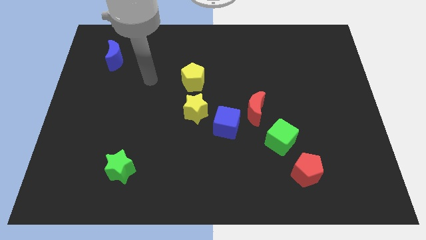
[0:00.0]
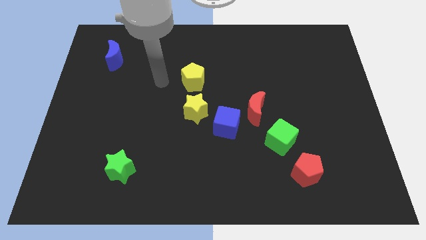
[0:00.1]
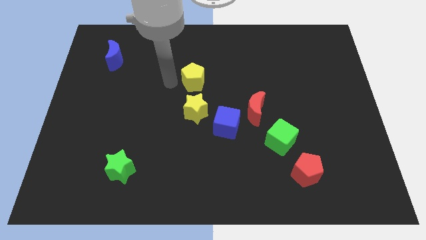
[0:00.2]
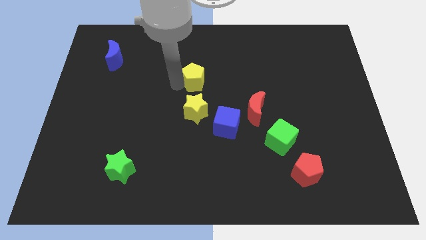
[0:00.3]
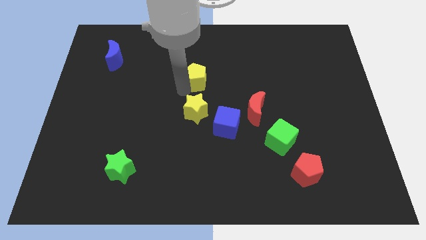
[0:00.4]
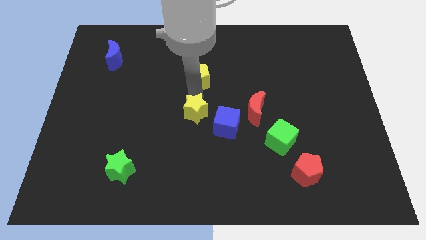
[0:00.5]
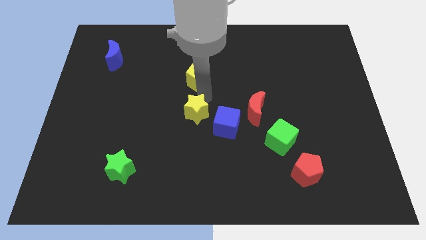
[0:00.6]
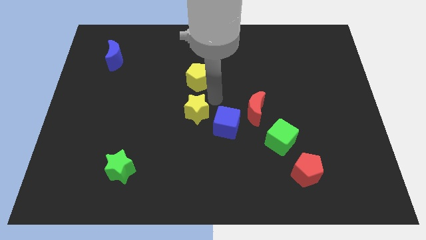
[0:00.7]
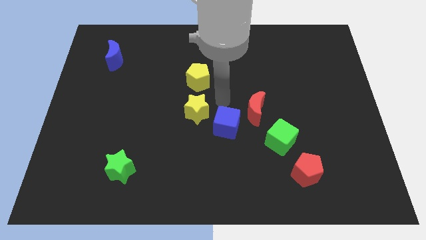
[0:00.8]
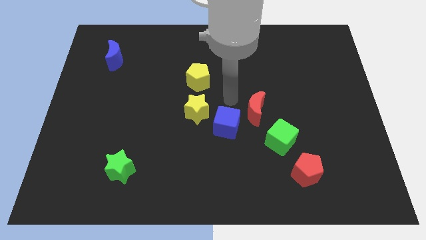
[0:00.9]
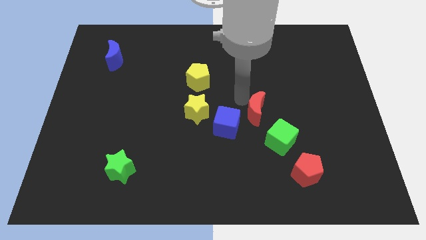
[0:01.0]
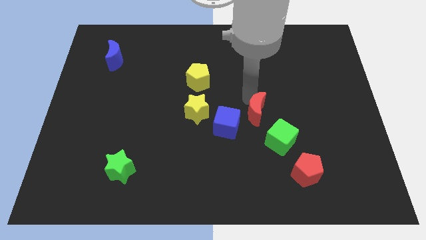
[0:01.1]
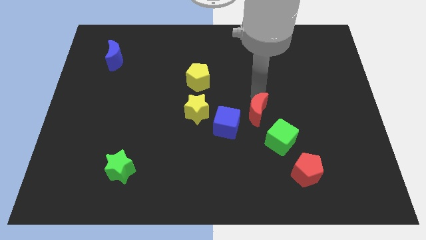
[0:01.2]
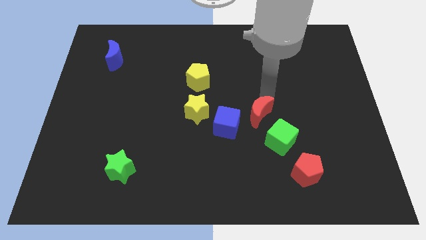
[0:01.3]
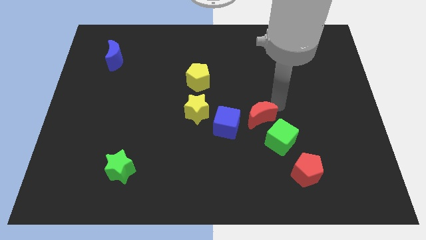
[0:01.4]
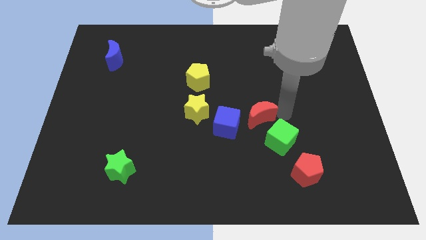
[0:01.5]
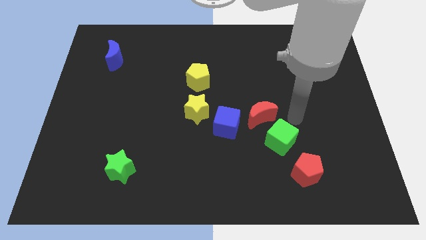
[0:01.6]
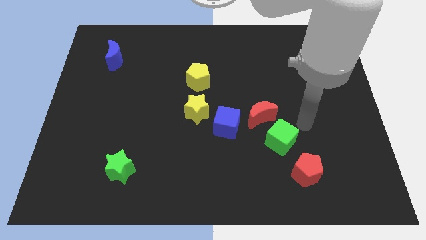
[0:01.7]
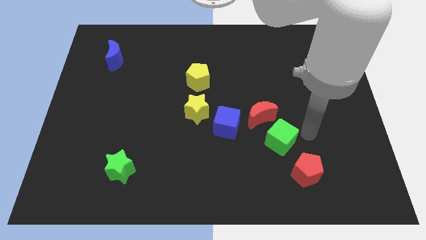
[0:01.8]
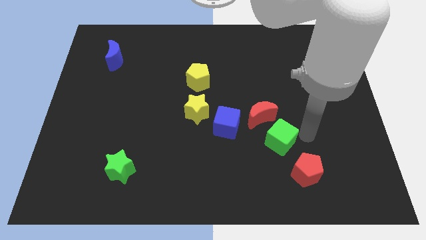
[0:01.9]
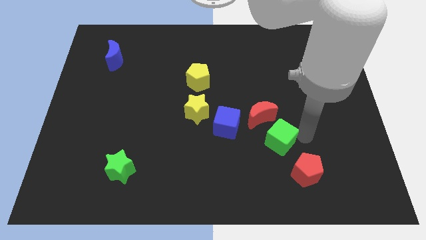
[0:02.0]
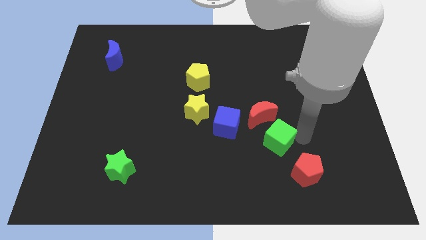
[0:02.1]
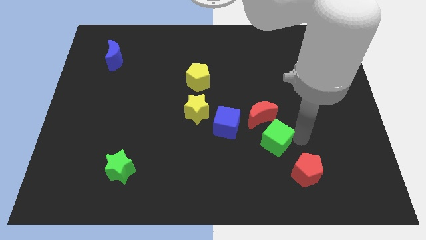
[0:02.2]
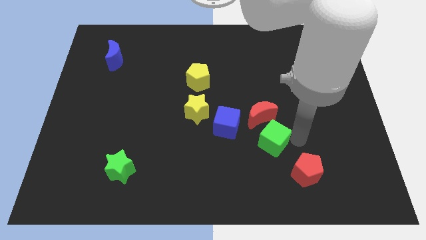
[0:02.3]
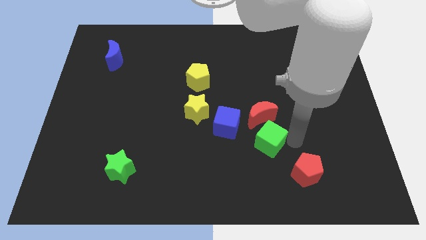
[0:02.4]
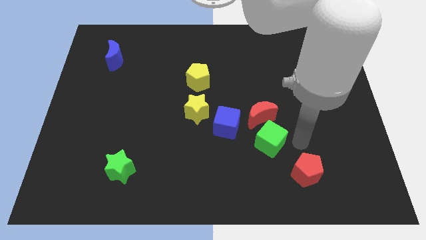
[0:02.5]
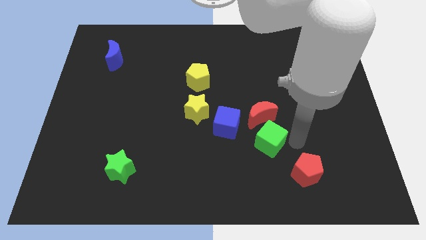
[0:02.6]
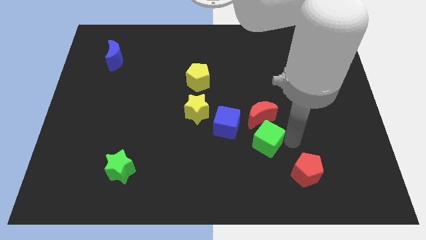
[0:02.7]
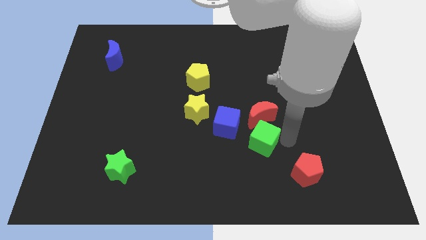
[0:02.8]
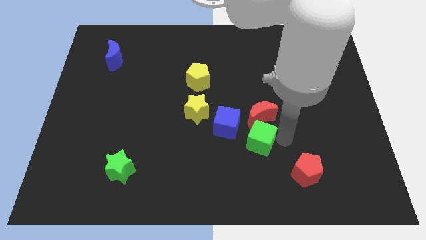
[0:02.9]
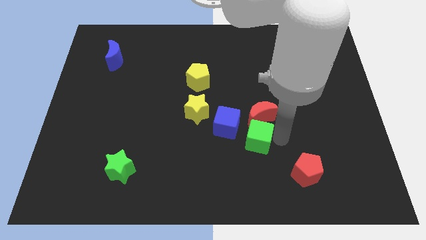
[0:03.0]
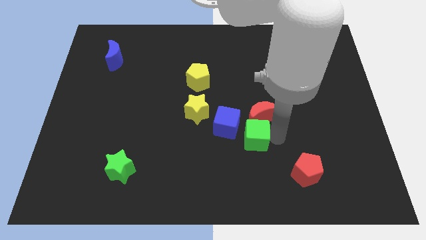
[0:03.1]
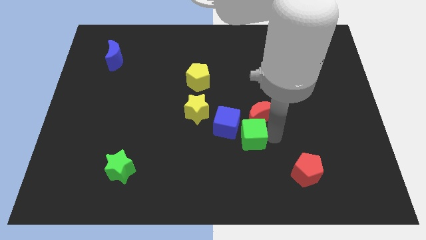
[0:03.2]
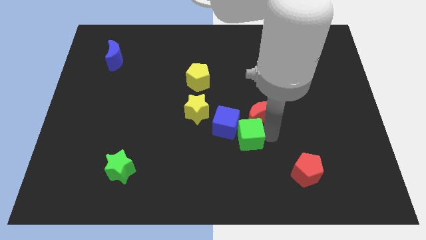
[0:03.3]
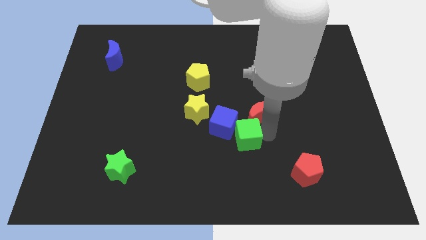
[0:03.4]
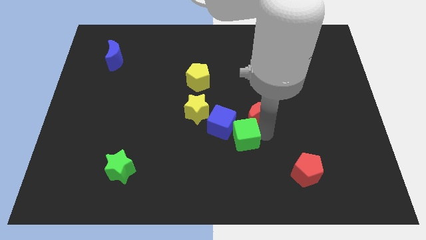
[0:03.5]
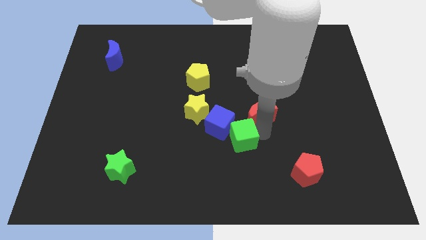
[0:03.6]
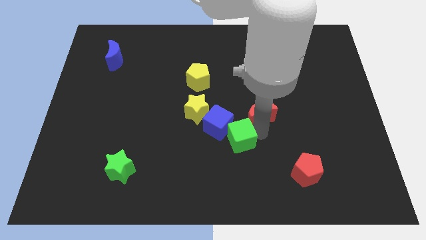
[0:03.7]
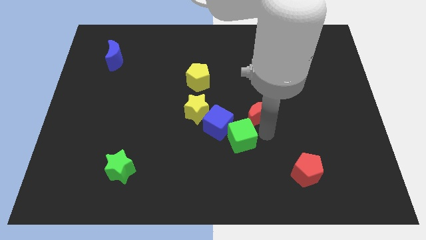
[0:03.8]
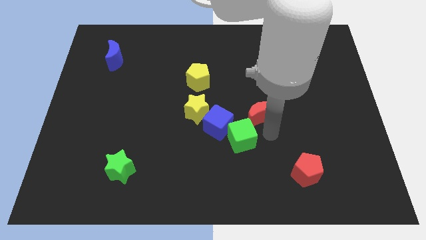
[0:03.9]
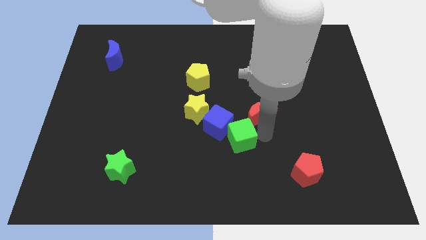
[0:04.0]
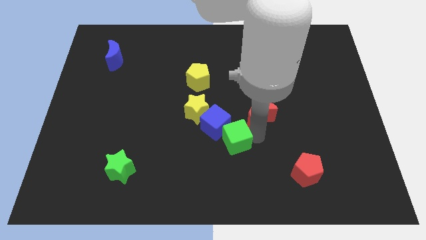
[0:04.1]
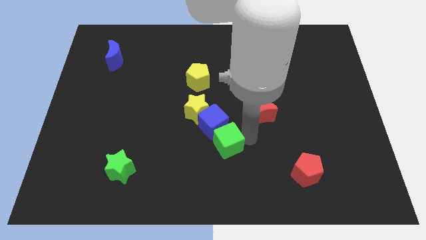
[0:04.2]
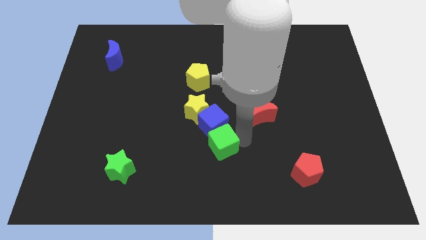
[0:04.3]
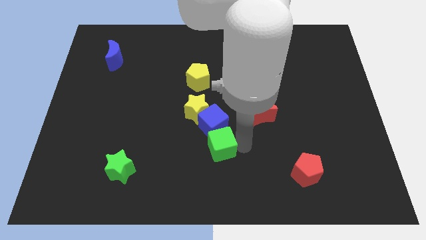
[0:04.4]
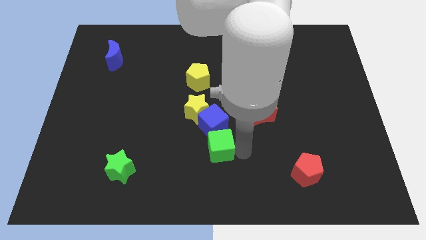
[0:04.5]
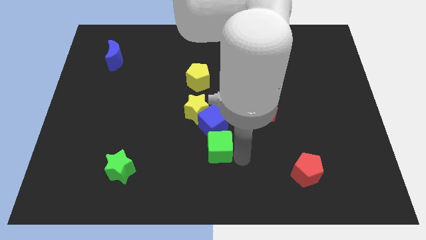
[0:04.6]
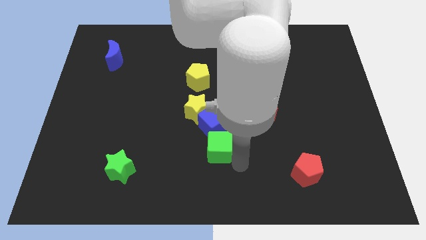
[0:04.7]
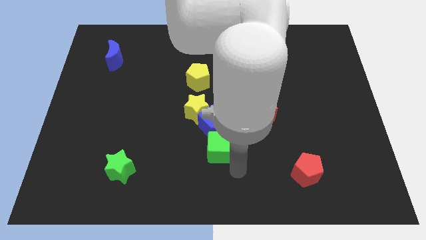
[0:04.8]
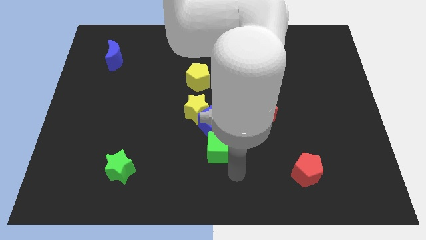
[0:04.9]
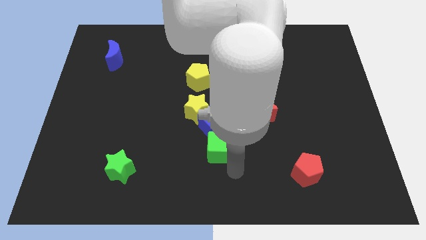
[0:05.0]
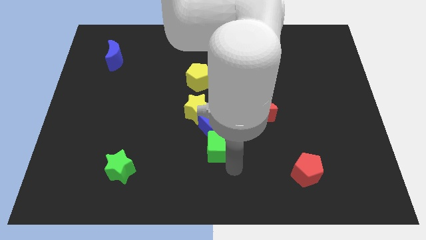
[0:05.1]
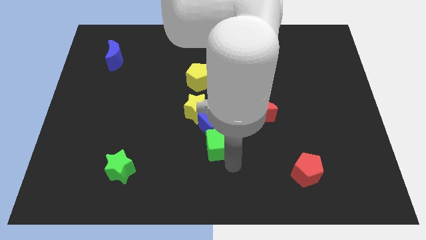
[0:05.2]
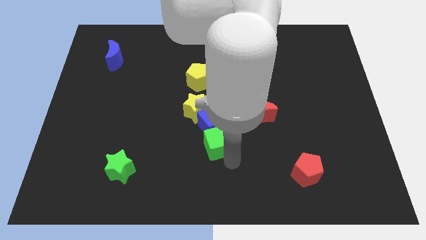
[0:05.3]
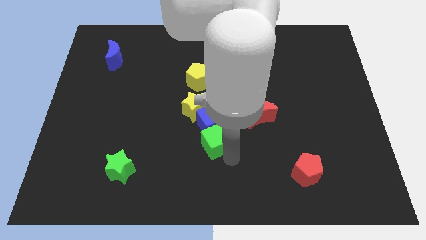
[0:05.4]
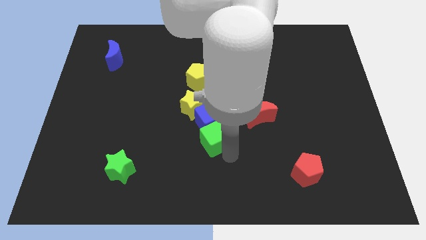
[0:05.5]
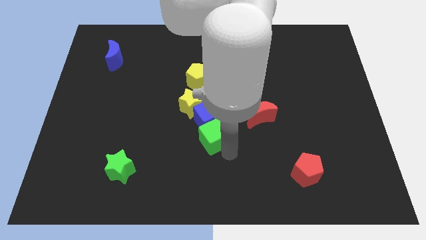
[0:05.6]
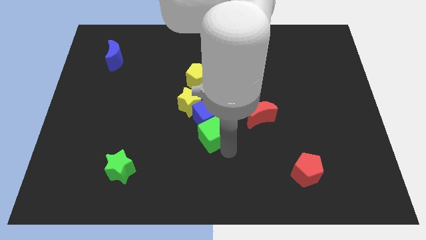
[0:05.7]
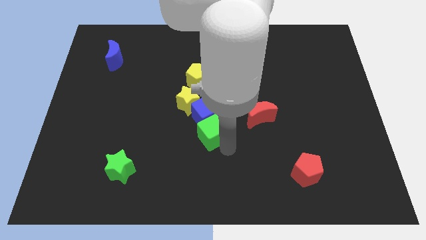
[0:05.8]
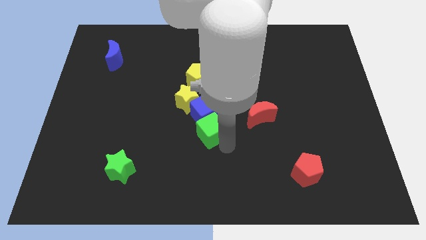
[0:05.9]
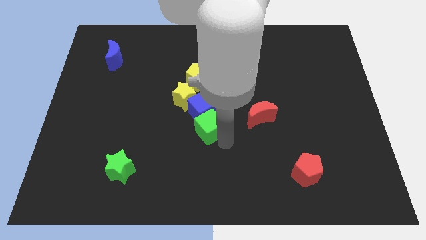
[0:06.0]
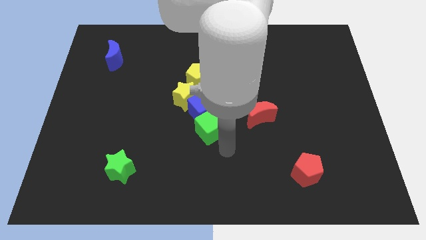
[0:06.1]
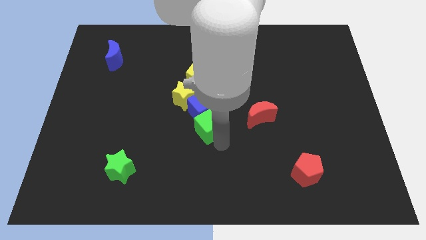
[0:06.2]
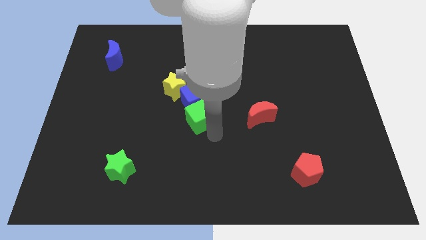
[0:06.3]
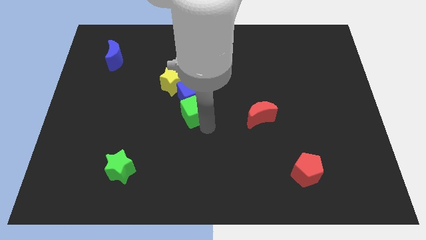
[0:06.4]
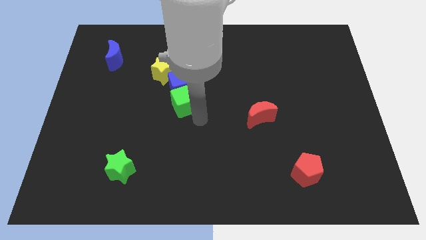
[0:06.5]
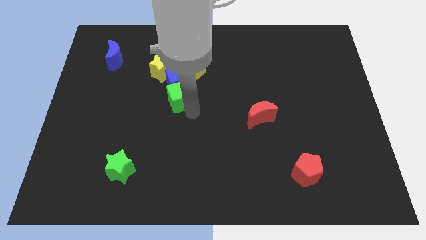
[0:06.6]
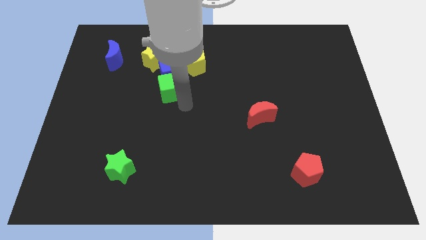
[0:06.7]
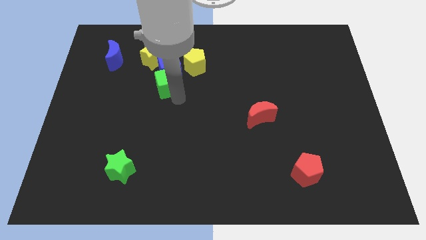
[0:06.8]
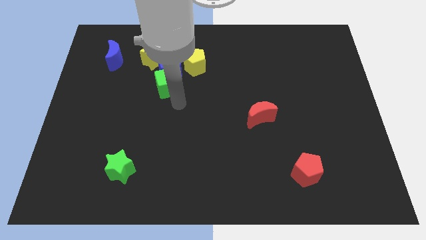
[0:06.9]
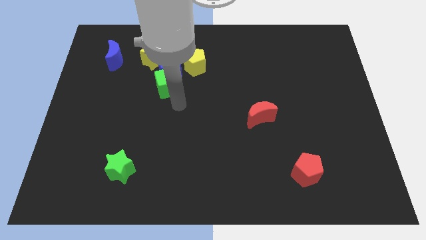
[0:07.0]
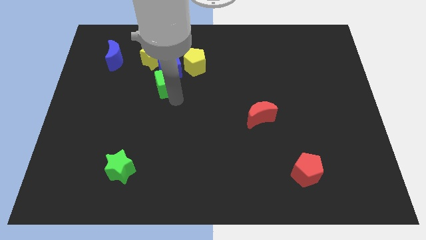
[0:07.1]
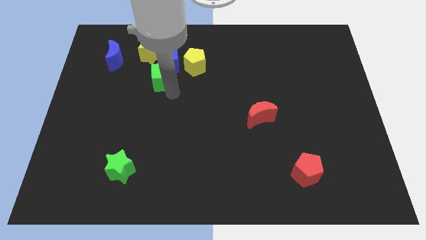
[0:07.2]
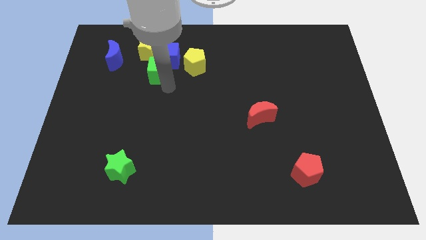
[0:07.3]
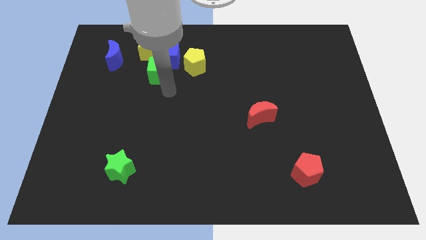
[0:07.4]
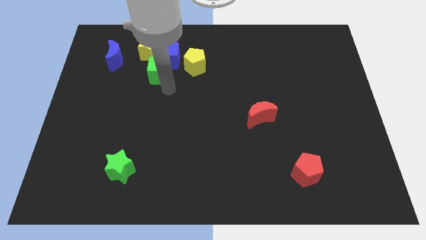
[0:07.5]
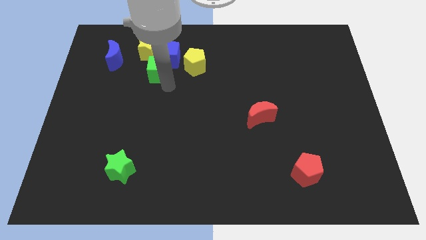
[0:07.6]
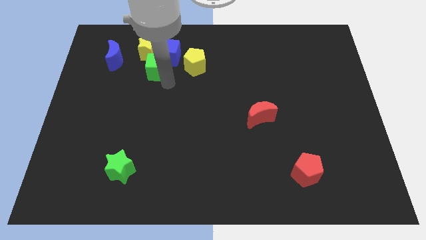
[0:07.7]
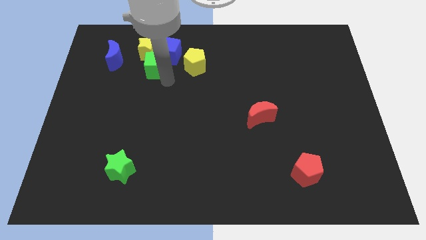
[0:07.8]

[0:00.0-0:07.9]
push the green cube close to the yellow star

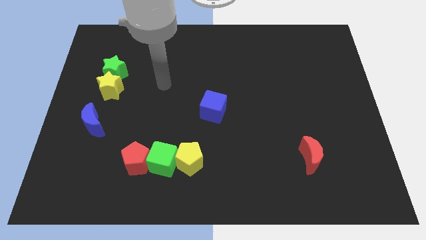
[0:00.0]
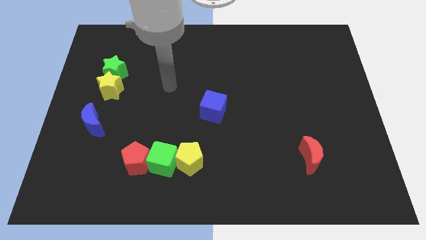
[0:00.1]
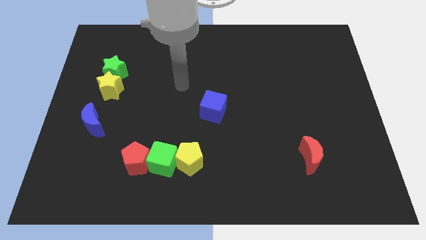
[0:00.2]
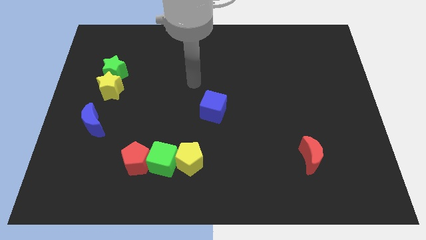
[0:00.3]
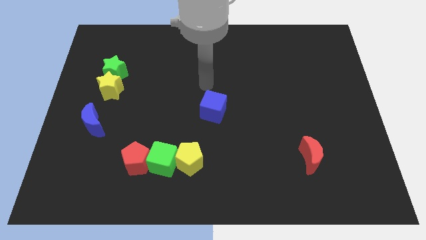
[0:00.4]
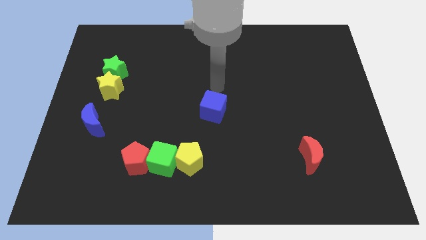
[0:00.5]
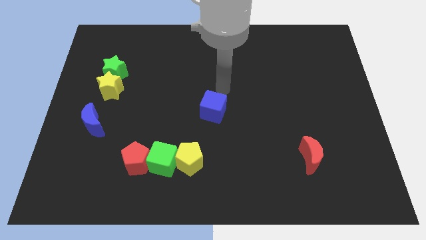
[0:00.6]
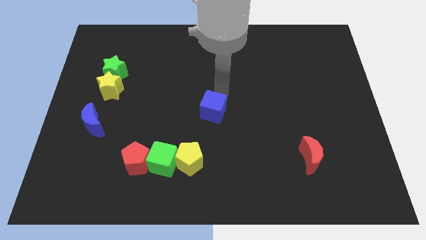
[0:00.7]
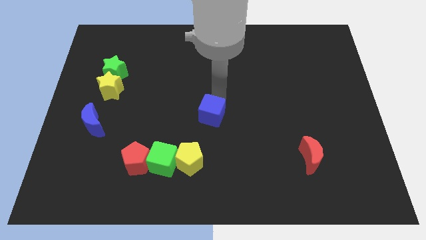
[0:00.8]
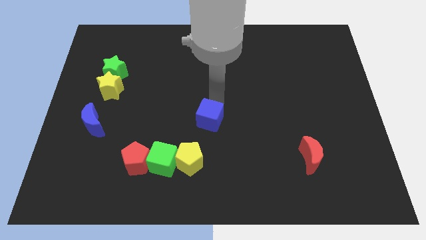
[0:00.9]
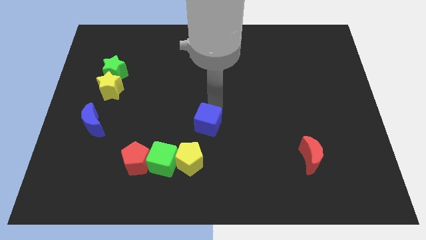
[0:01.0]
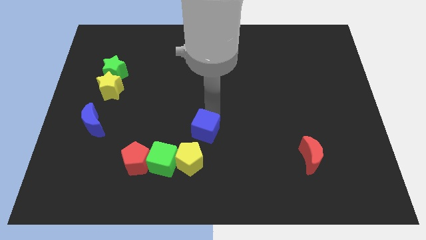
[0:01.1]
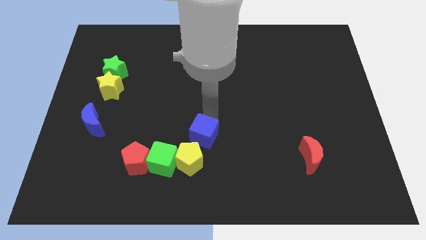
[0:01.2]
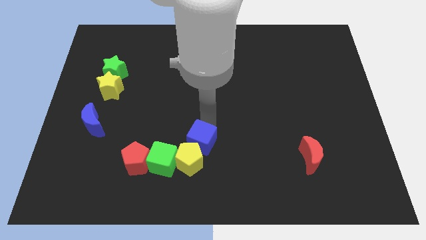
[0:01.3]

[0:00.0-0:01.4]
put the blue cube close to the yellow pentagon
